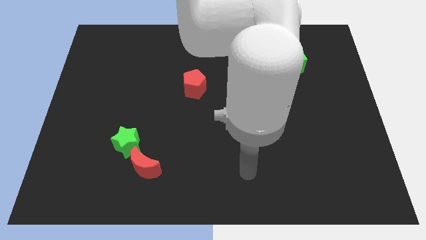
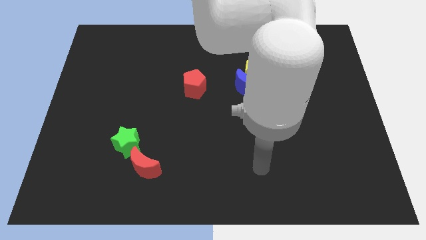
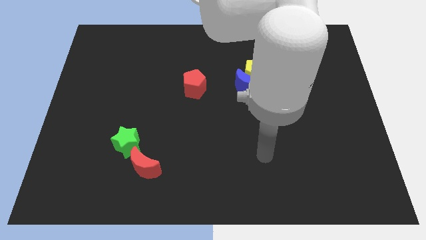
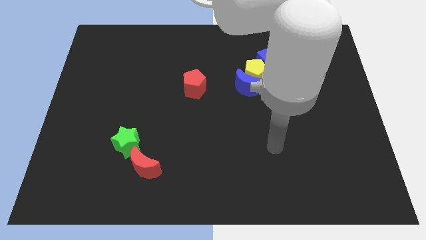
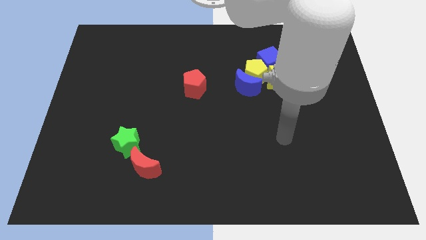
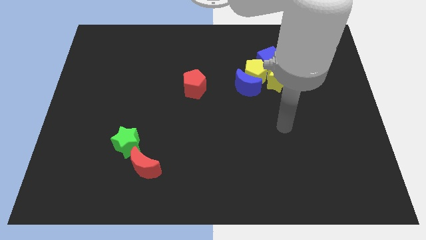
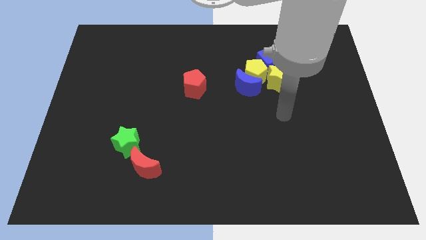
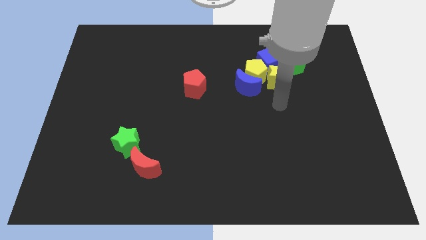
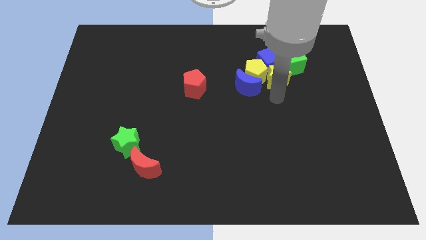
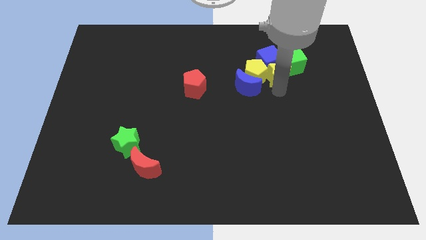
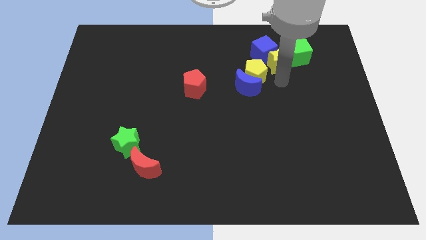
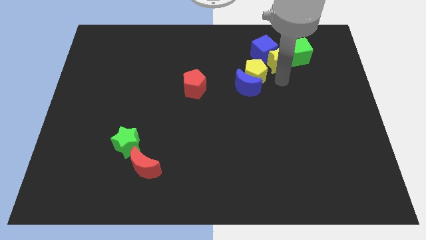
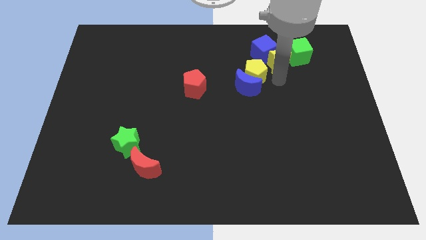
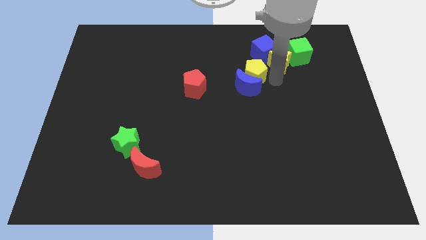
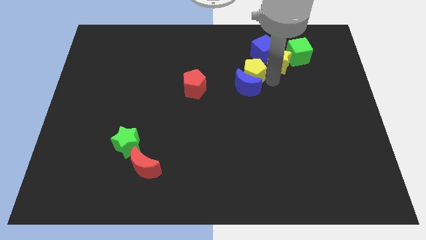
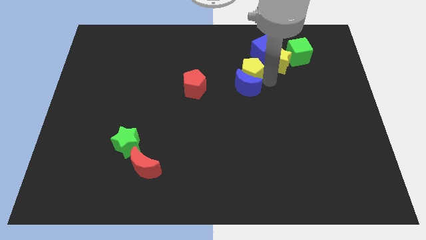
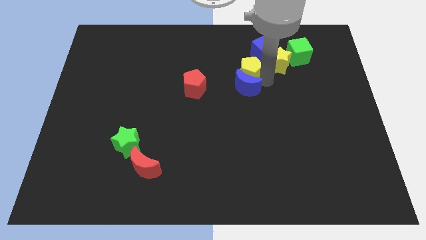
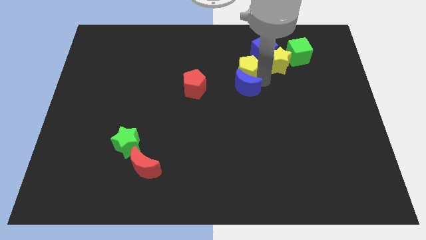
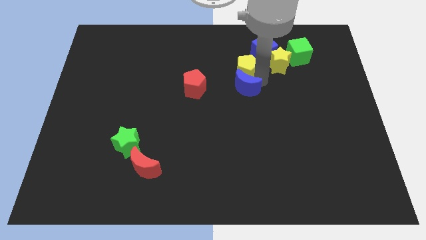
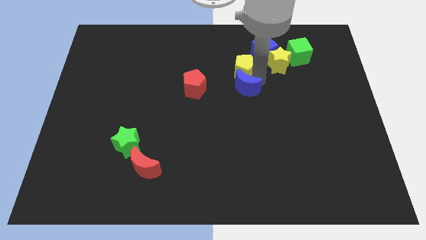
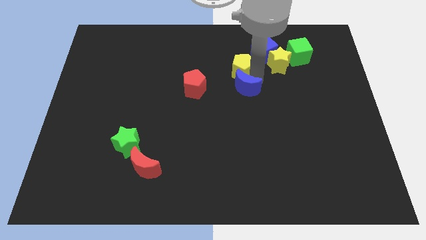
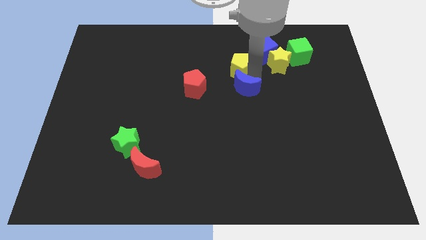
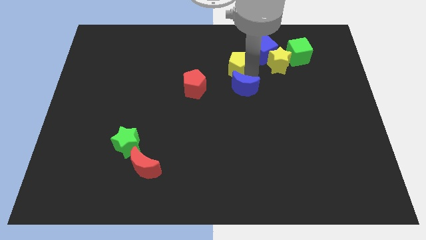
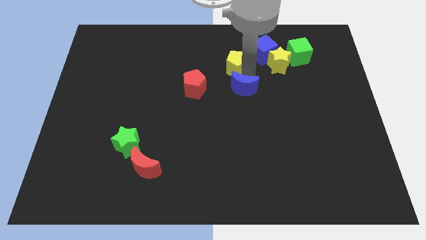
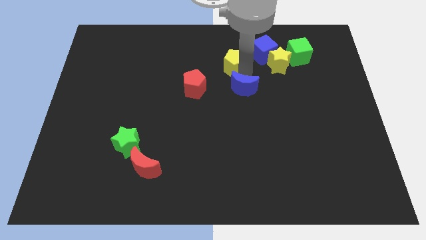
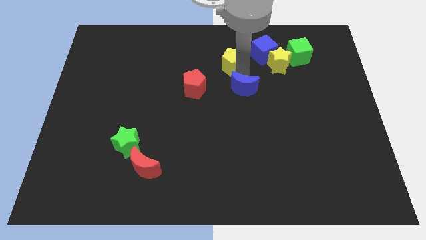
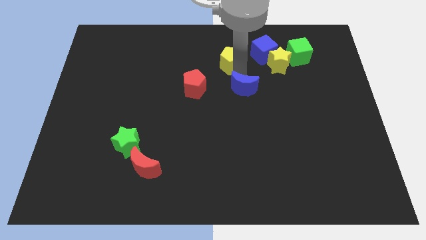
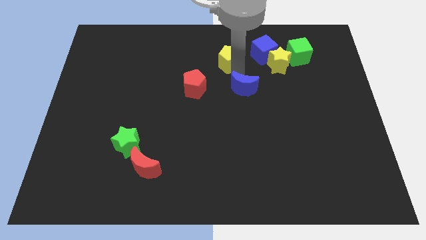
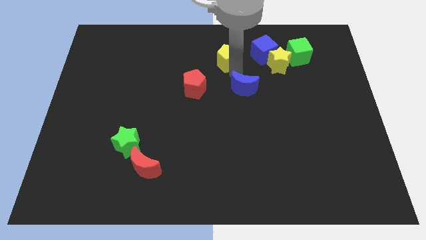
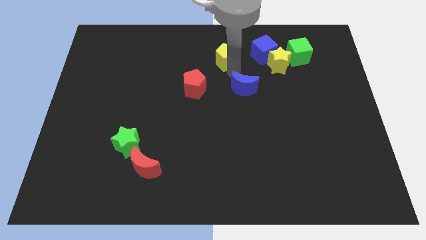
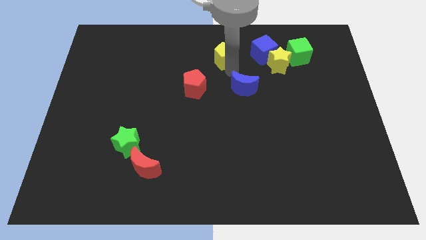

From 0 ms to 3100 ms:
move the yellow pentagon away from the blue moon, blue cube, and yellow star

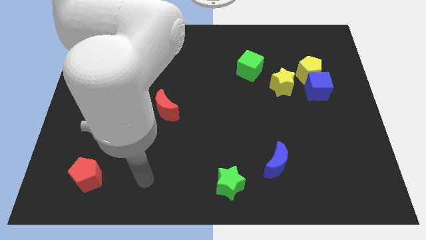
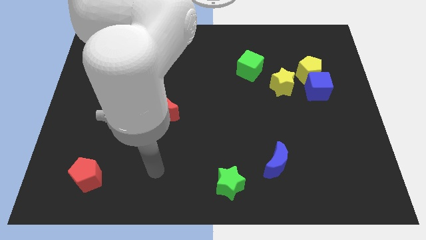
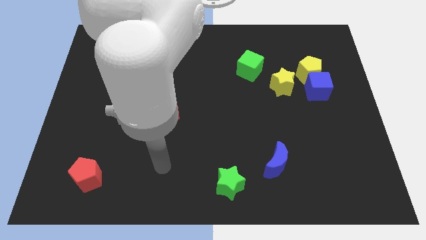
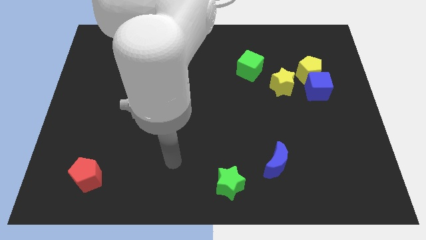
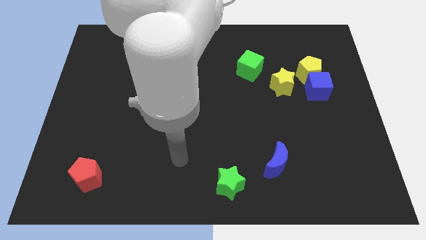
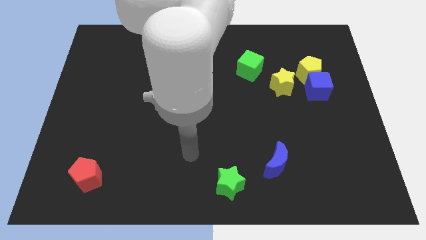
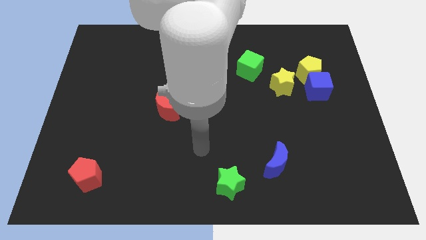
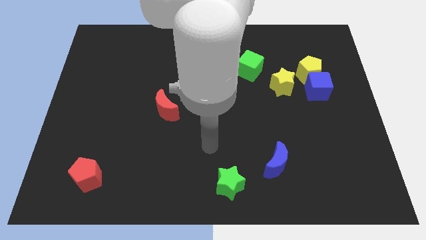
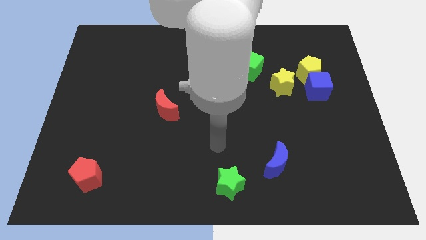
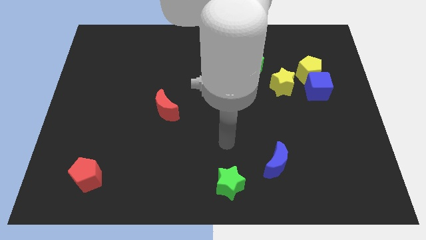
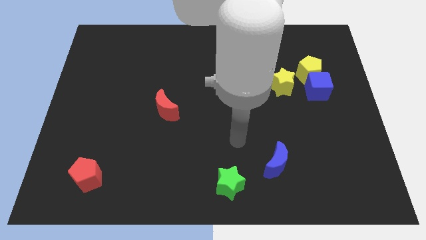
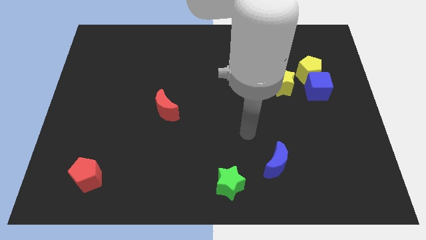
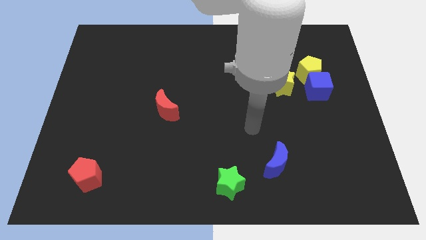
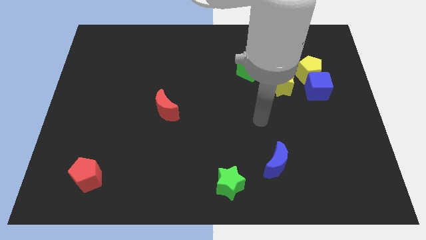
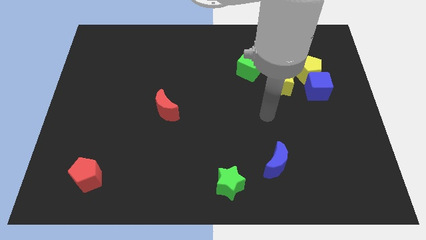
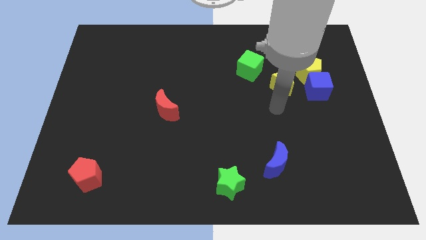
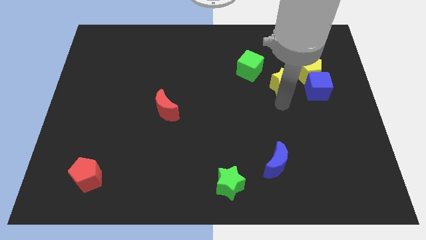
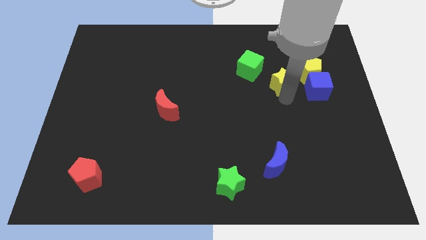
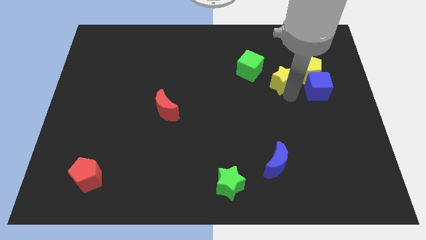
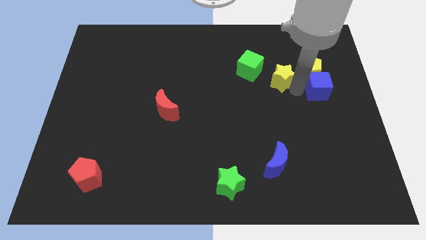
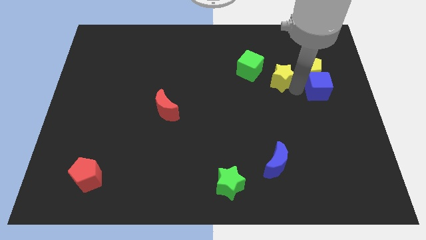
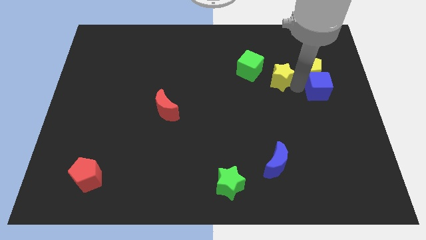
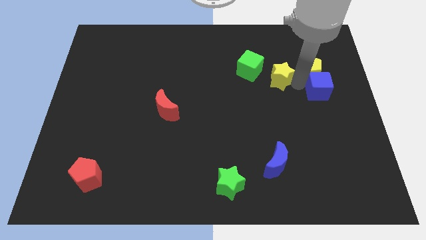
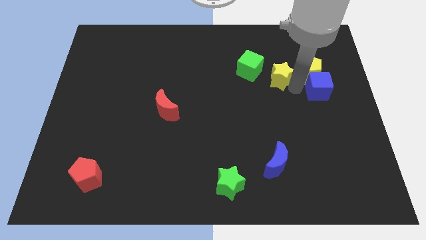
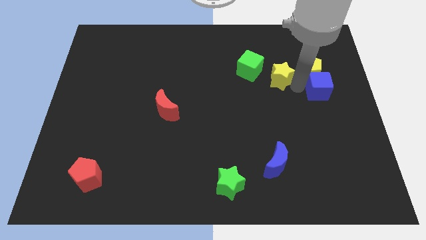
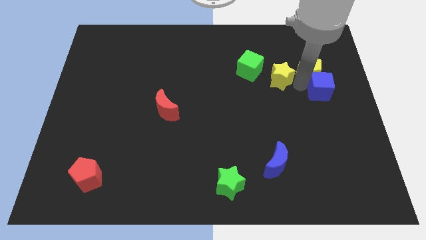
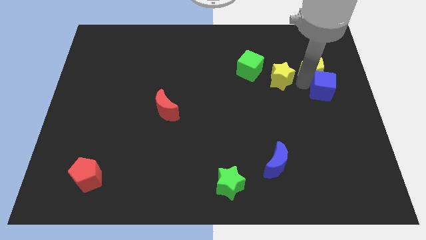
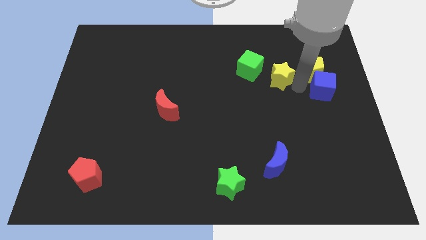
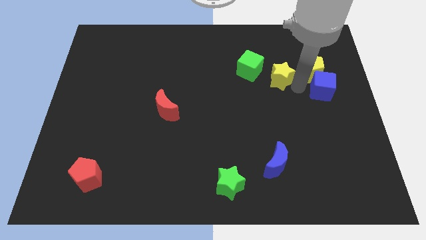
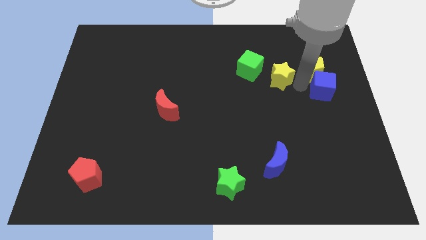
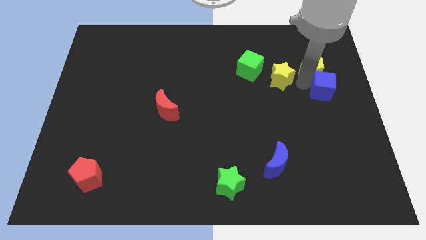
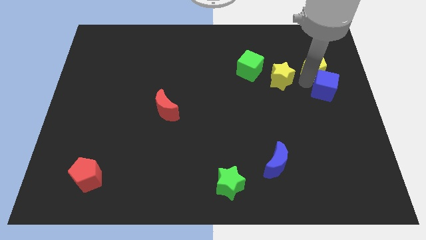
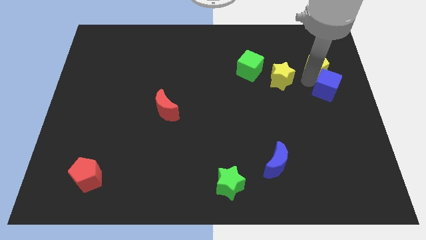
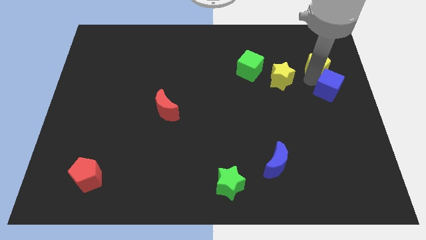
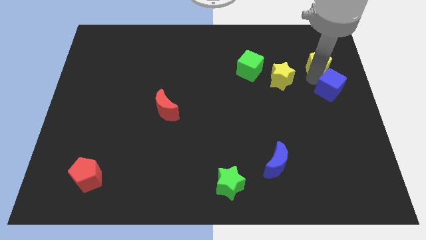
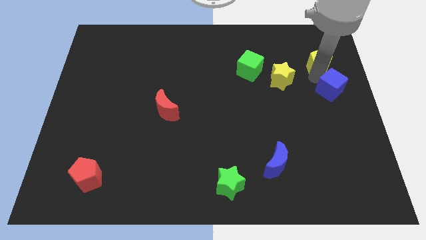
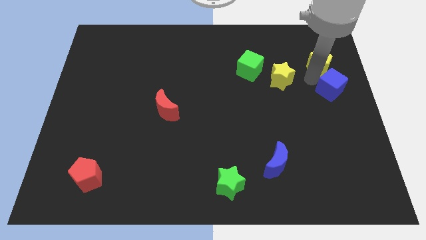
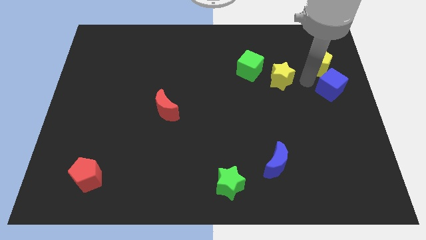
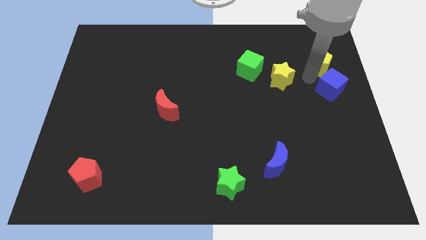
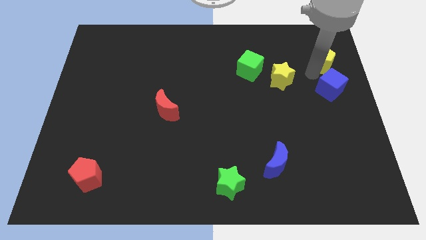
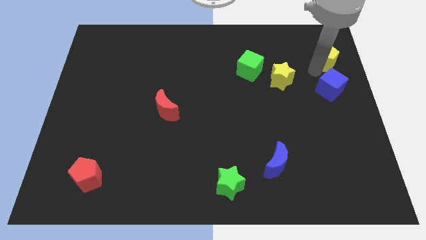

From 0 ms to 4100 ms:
pull the yellow pentagon apart from the blue cube and yellow star

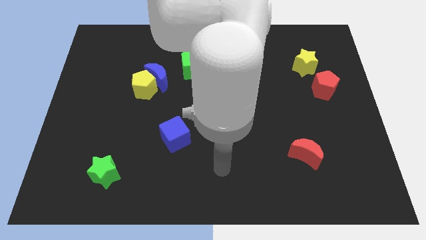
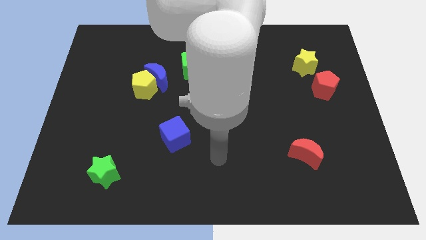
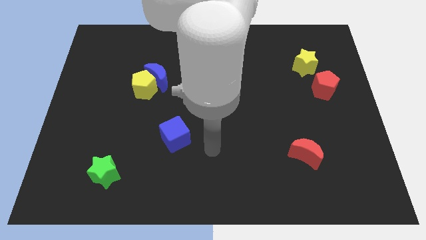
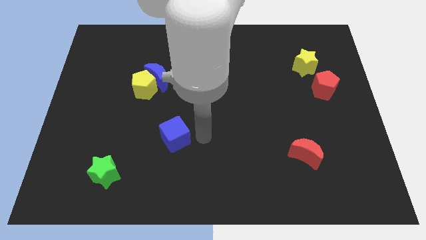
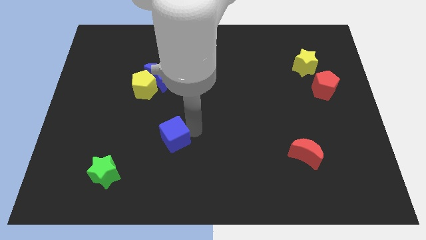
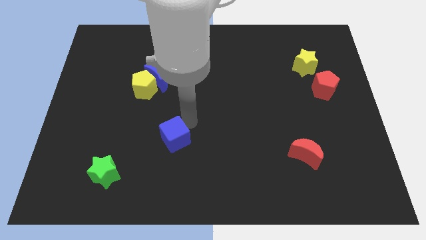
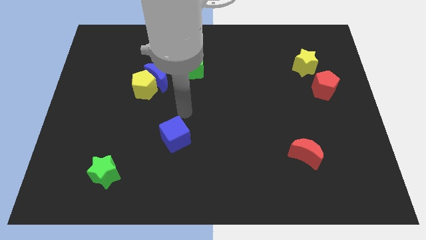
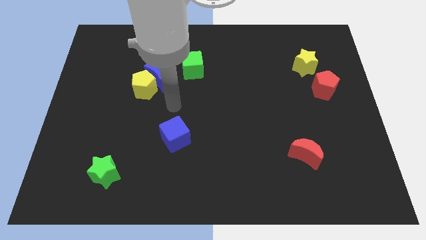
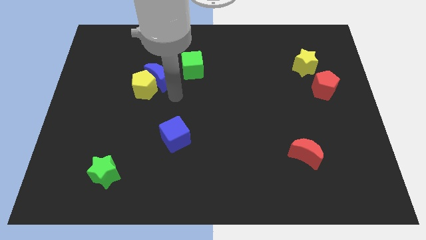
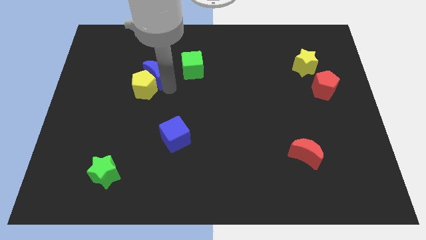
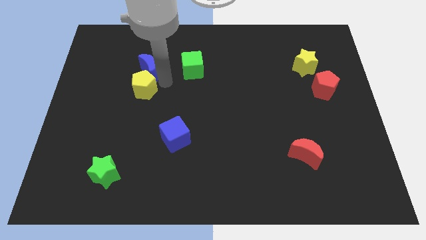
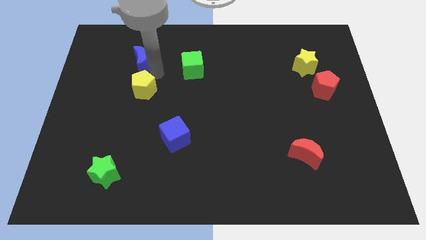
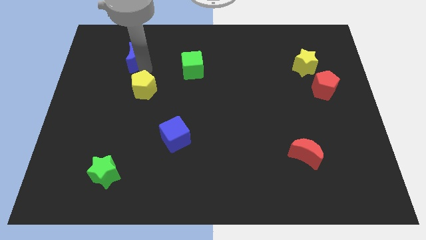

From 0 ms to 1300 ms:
move the yellow pentagon away from the blue moon

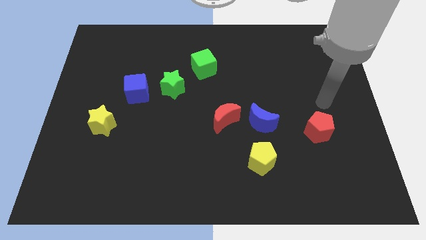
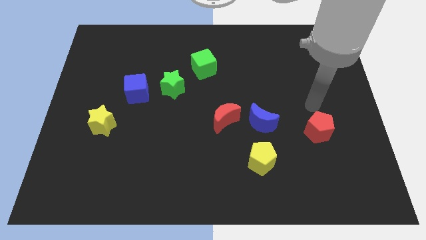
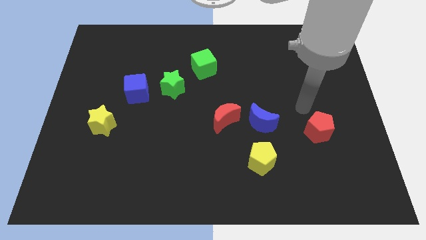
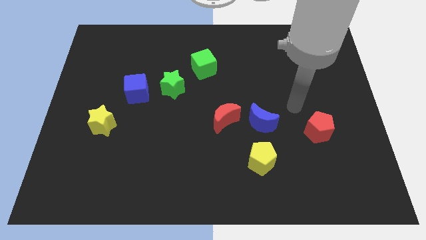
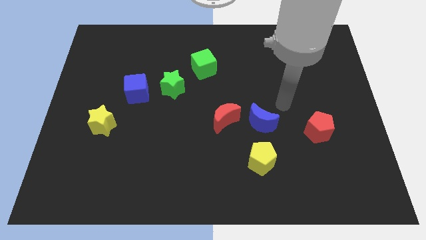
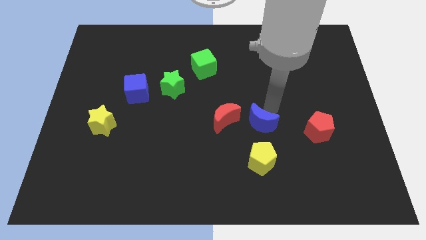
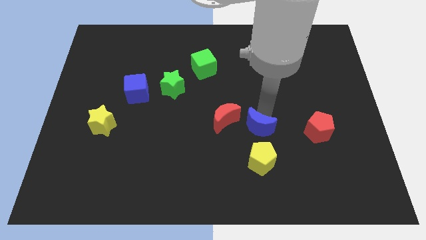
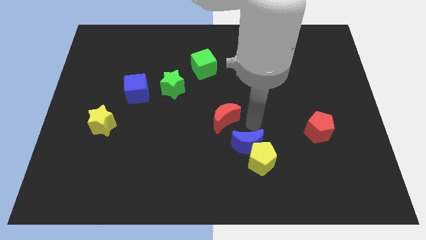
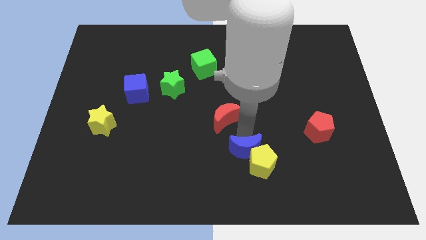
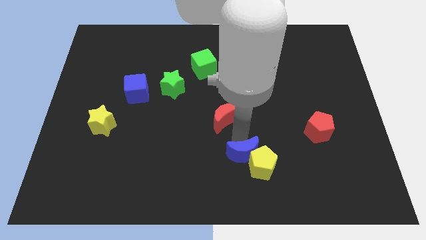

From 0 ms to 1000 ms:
separate the red moon from the blue moon
